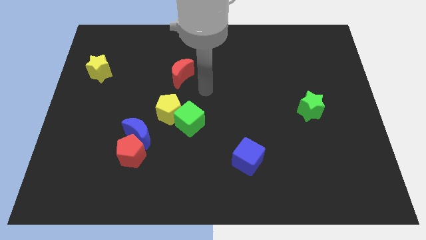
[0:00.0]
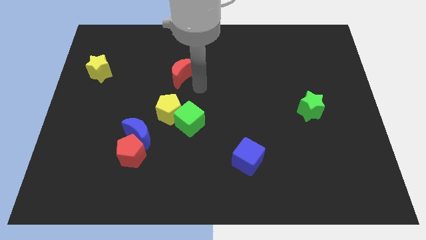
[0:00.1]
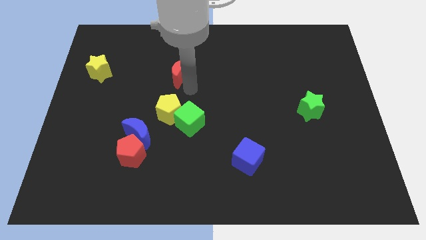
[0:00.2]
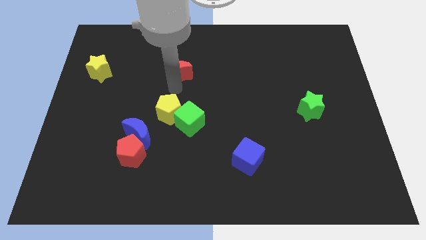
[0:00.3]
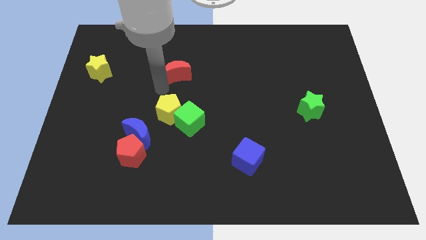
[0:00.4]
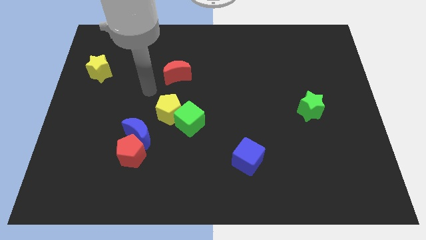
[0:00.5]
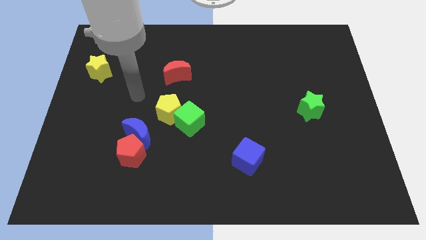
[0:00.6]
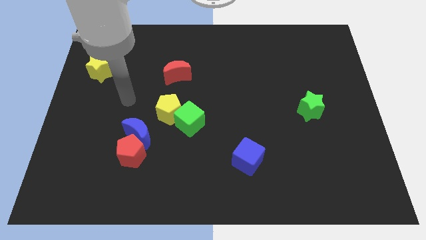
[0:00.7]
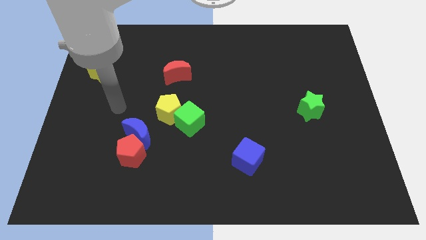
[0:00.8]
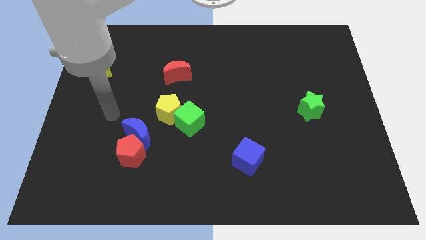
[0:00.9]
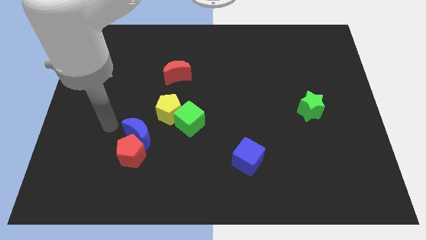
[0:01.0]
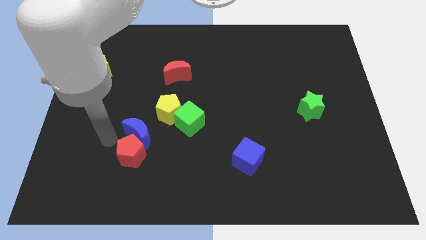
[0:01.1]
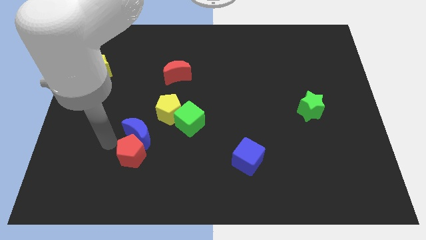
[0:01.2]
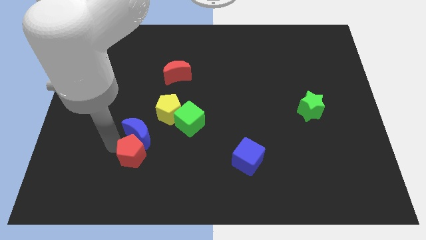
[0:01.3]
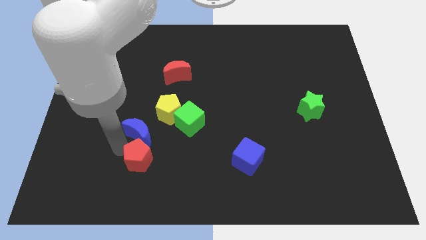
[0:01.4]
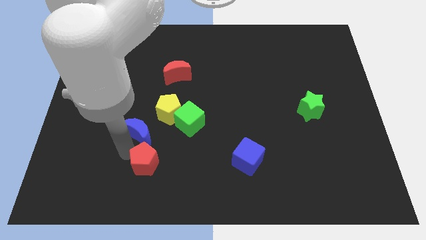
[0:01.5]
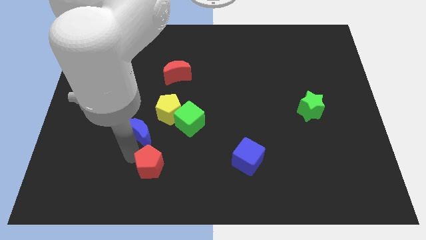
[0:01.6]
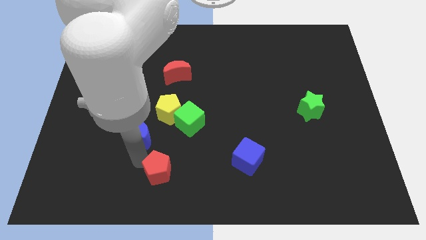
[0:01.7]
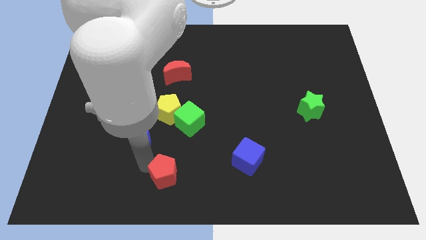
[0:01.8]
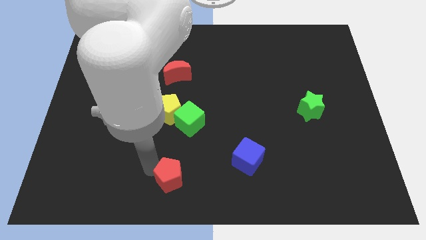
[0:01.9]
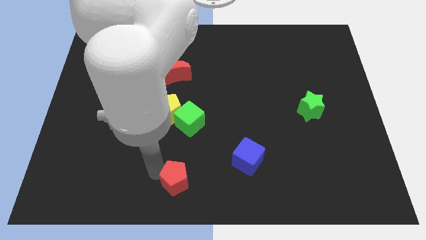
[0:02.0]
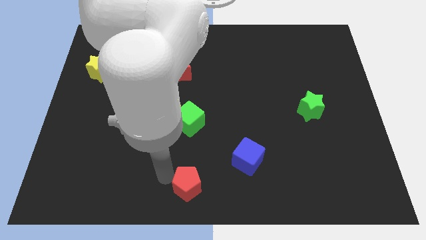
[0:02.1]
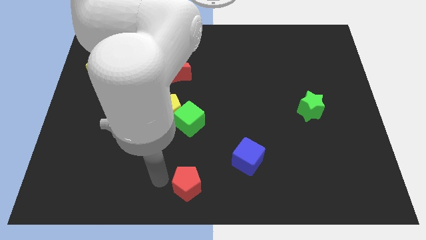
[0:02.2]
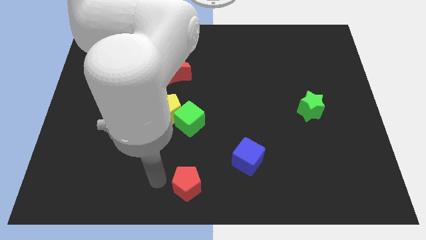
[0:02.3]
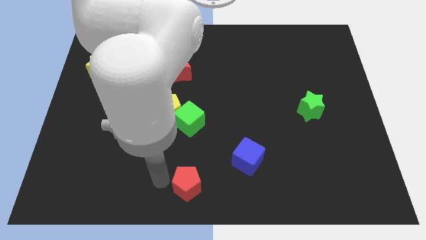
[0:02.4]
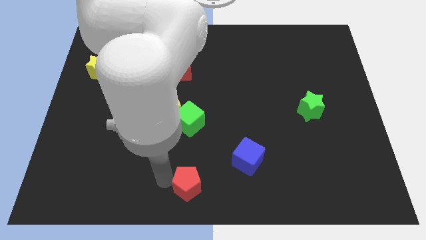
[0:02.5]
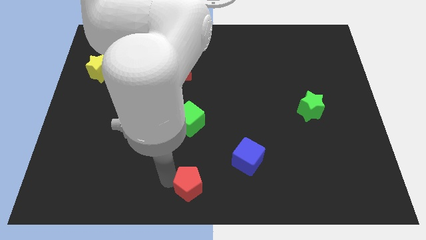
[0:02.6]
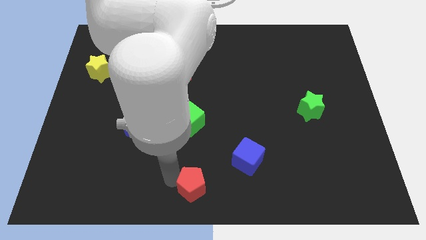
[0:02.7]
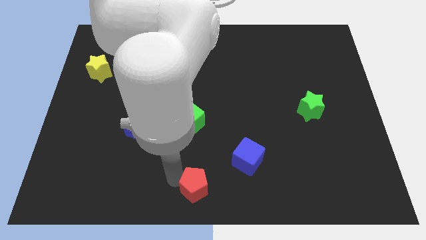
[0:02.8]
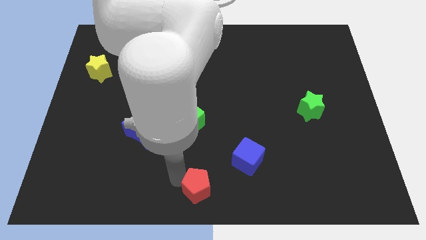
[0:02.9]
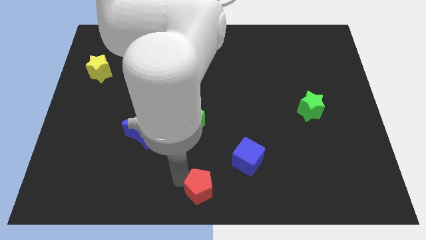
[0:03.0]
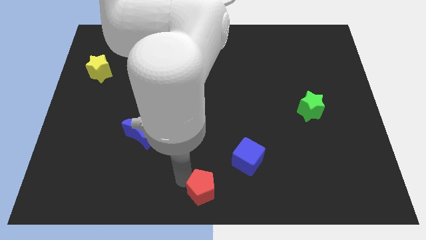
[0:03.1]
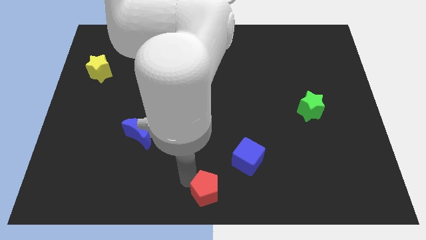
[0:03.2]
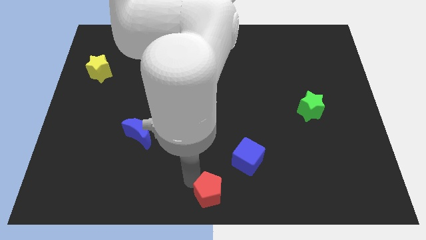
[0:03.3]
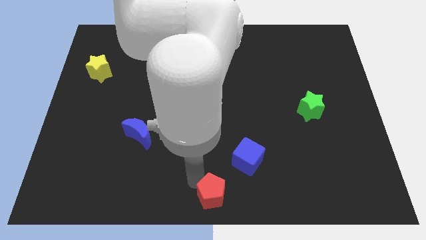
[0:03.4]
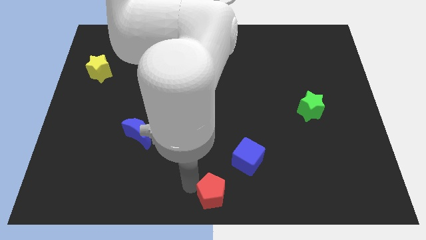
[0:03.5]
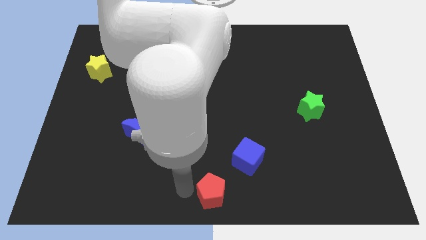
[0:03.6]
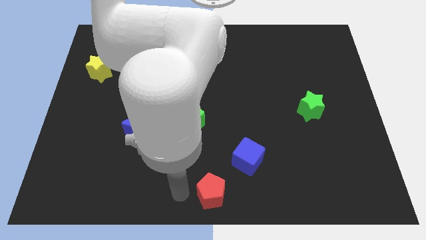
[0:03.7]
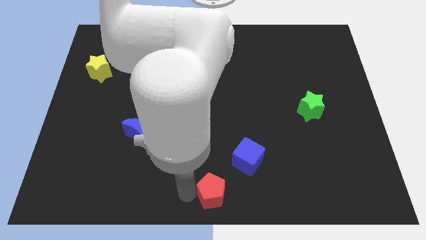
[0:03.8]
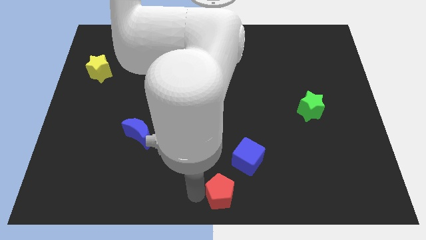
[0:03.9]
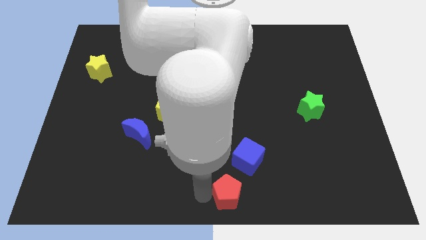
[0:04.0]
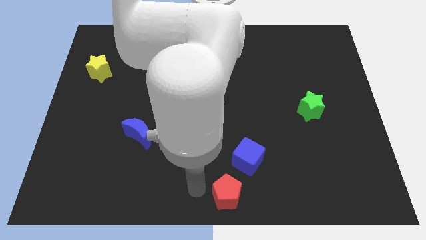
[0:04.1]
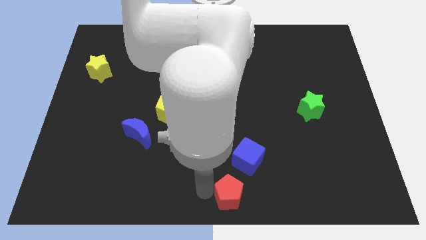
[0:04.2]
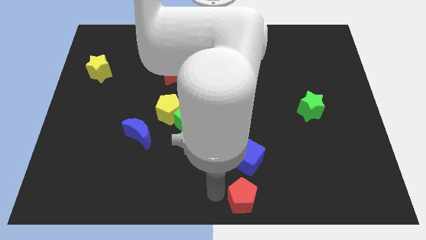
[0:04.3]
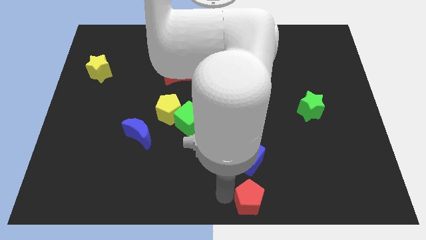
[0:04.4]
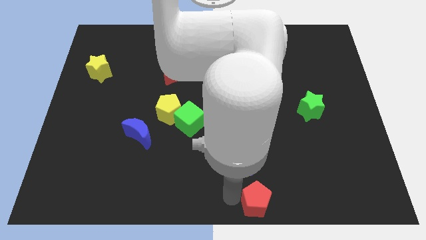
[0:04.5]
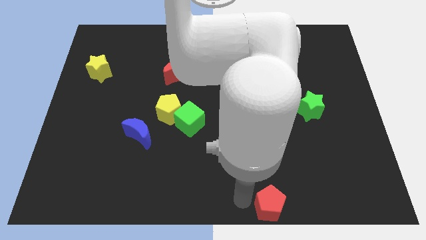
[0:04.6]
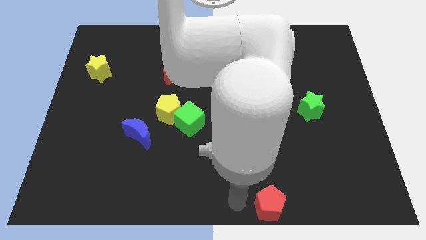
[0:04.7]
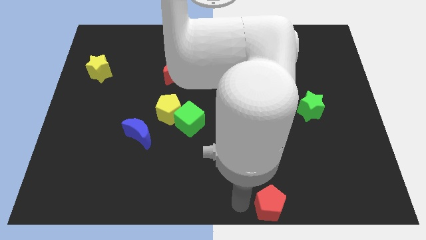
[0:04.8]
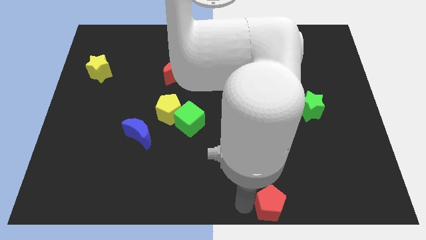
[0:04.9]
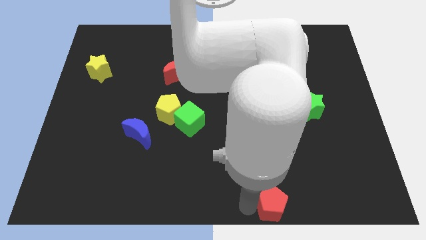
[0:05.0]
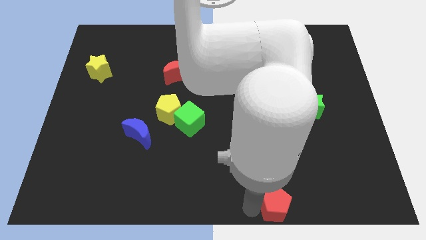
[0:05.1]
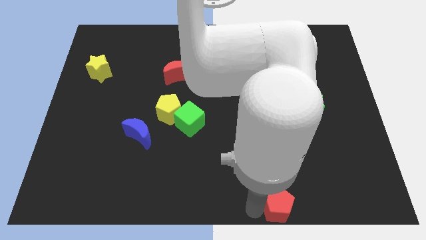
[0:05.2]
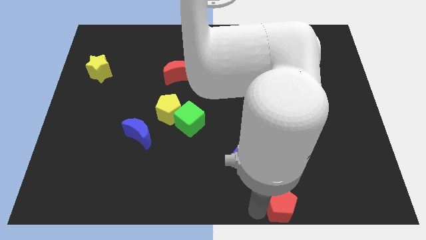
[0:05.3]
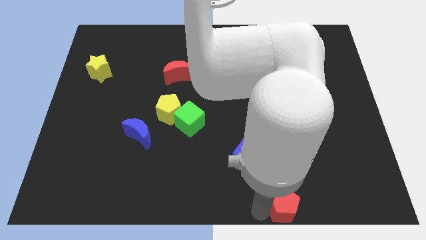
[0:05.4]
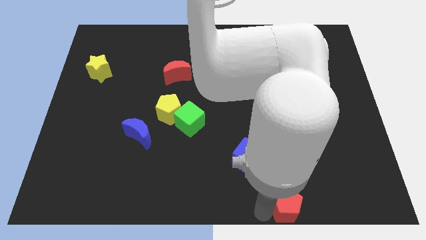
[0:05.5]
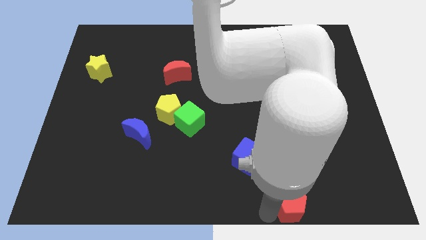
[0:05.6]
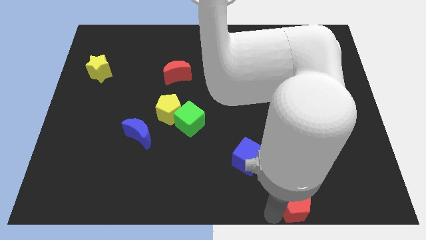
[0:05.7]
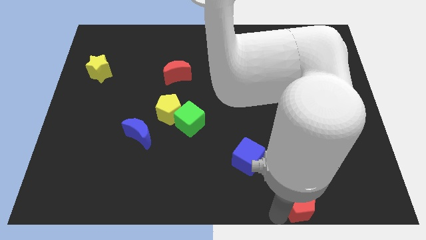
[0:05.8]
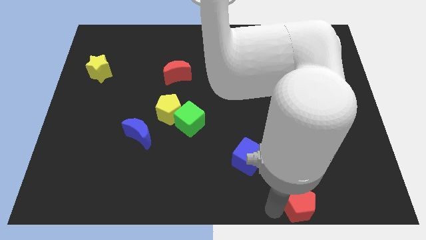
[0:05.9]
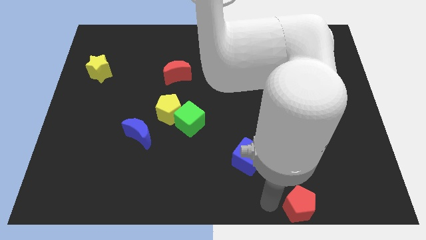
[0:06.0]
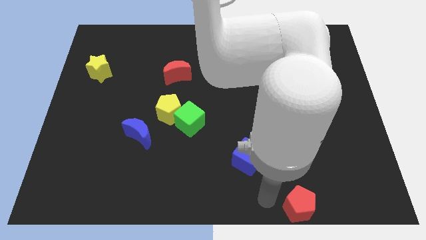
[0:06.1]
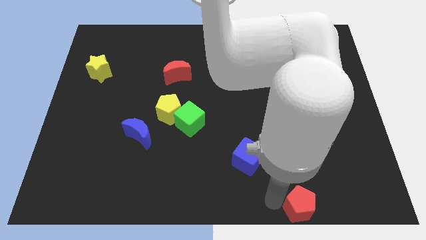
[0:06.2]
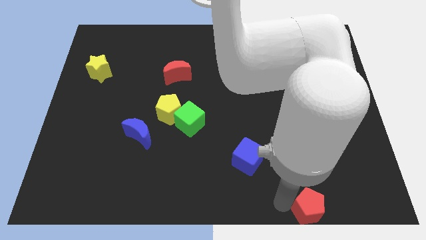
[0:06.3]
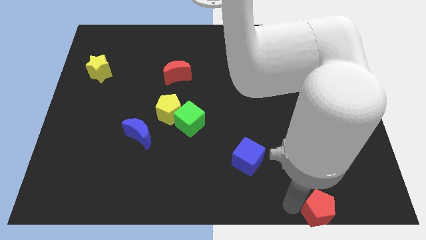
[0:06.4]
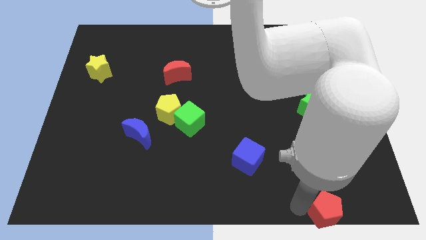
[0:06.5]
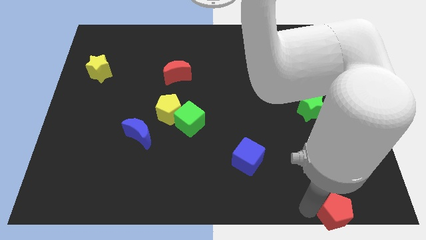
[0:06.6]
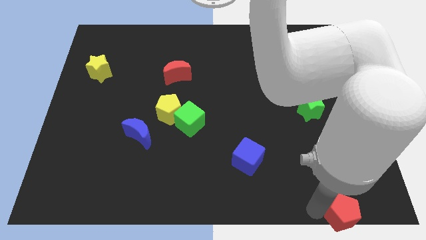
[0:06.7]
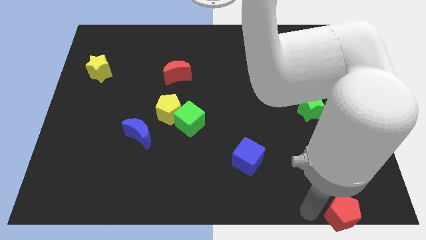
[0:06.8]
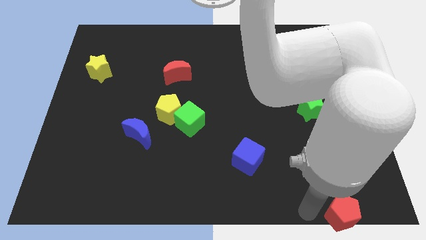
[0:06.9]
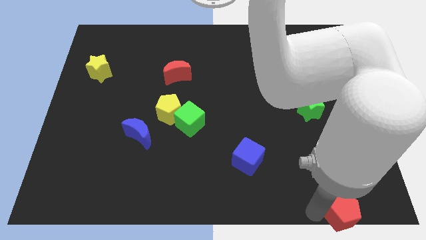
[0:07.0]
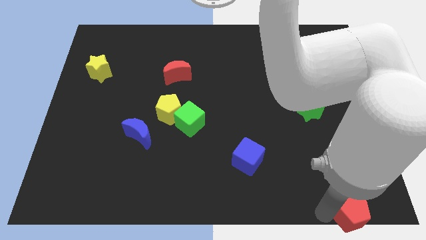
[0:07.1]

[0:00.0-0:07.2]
move the red pentagon to the lower right corner

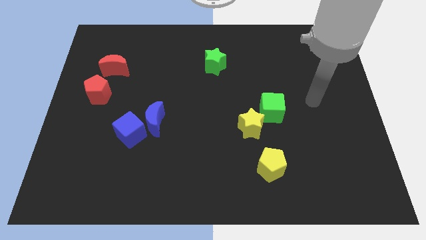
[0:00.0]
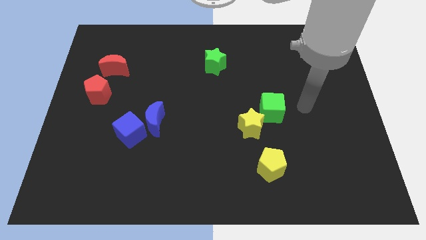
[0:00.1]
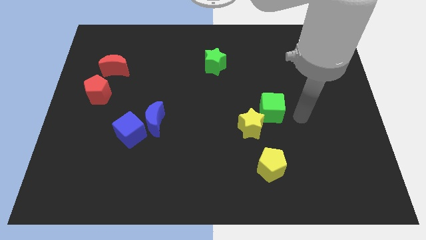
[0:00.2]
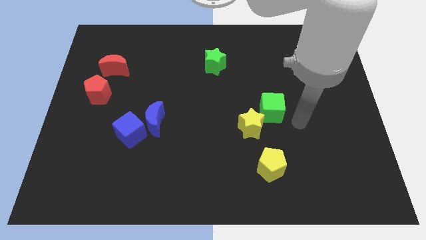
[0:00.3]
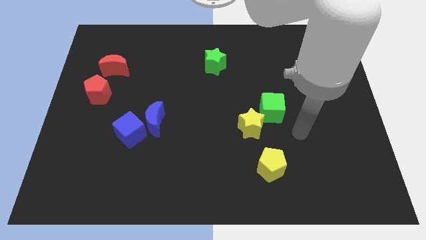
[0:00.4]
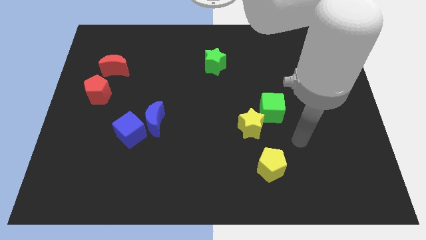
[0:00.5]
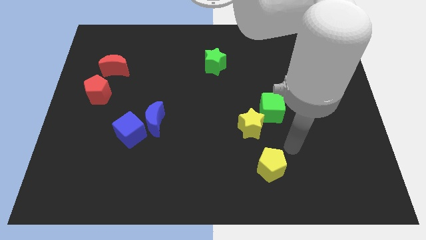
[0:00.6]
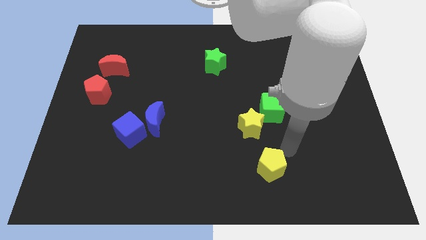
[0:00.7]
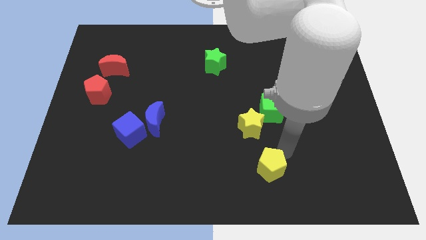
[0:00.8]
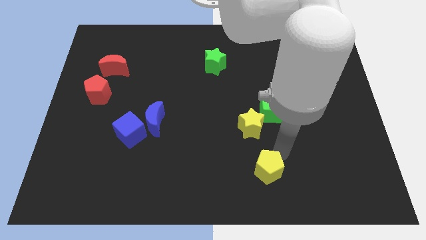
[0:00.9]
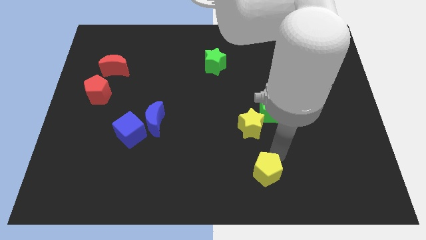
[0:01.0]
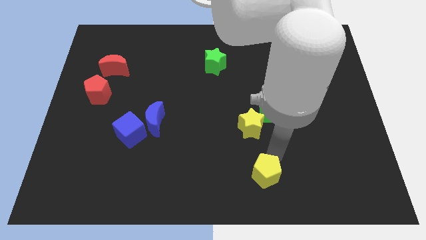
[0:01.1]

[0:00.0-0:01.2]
push the yellow pentagon to the bottom
